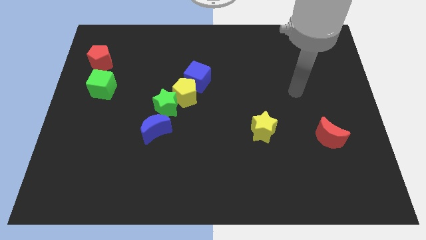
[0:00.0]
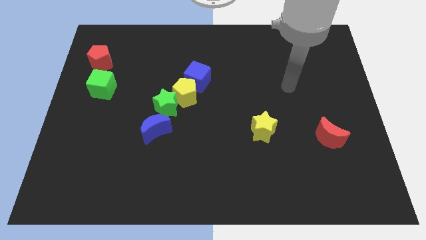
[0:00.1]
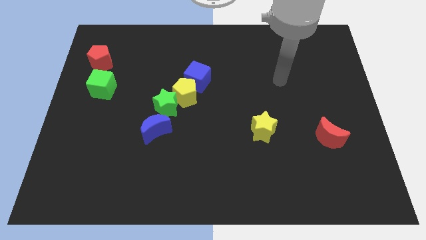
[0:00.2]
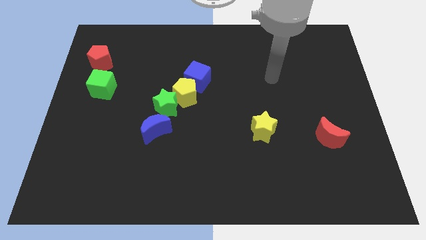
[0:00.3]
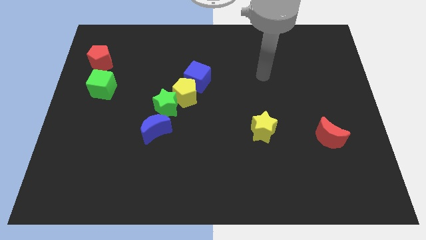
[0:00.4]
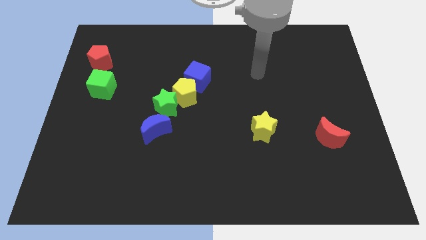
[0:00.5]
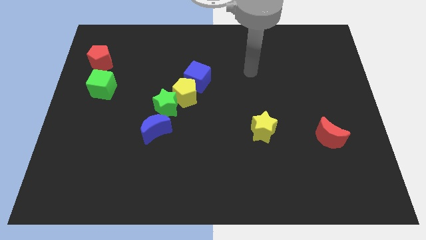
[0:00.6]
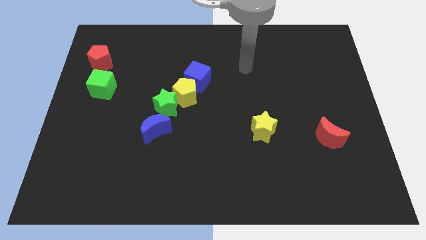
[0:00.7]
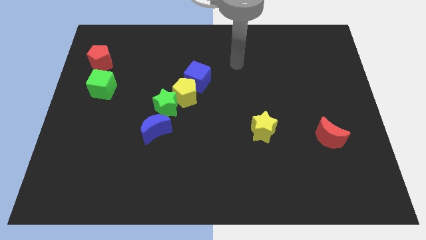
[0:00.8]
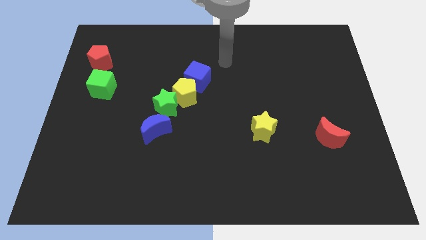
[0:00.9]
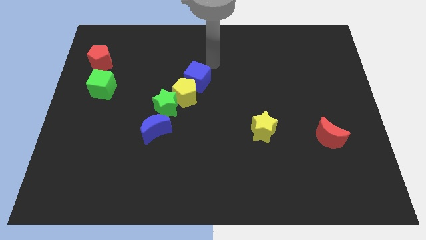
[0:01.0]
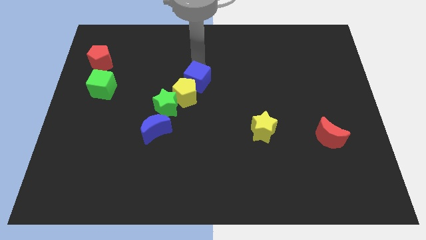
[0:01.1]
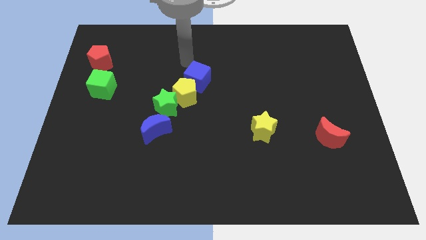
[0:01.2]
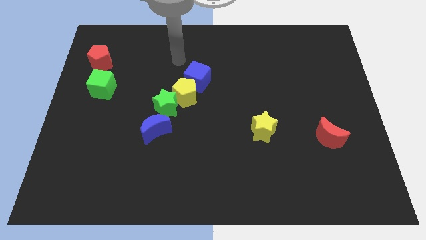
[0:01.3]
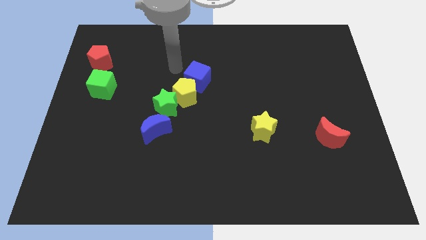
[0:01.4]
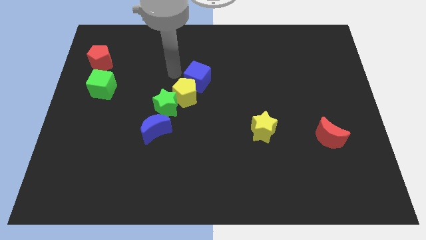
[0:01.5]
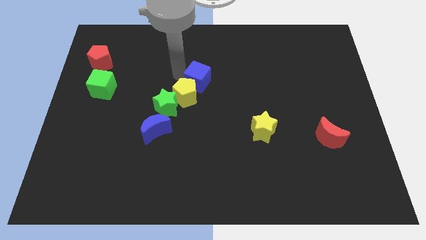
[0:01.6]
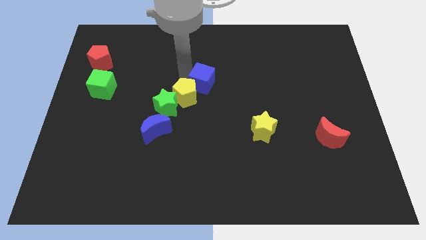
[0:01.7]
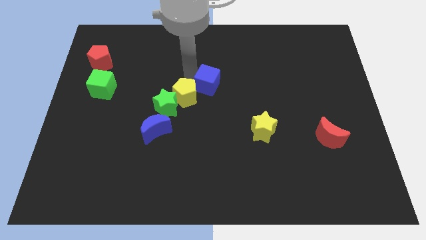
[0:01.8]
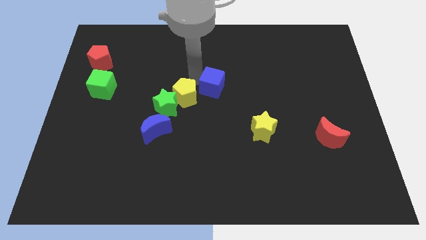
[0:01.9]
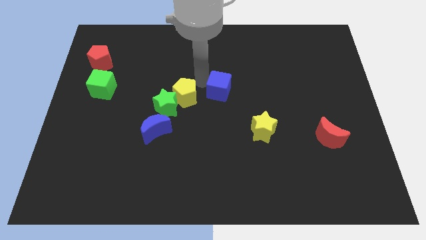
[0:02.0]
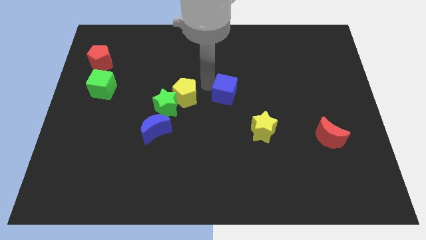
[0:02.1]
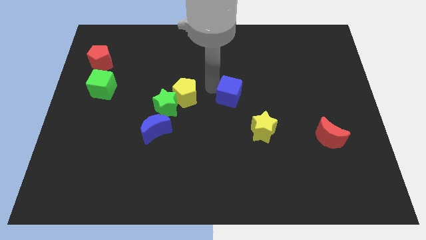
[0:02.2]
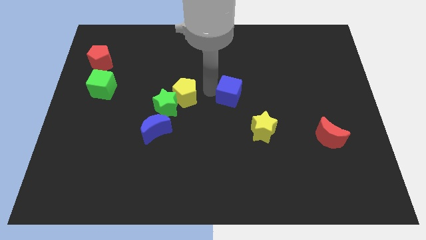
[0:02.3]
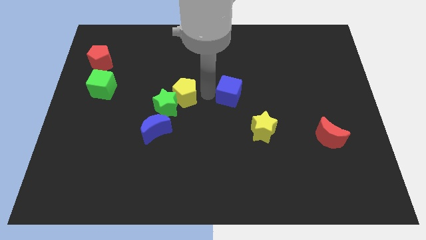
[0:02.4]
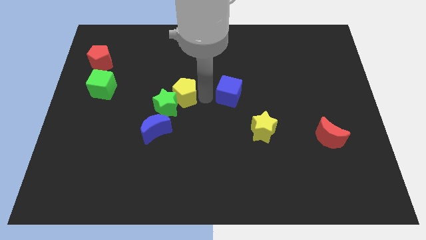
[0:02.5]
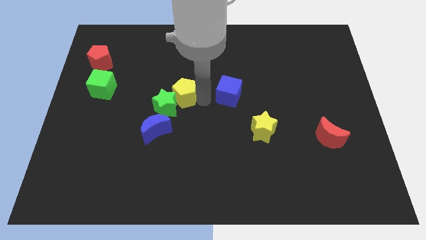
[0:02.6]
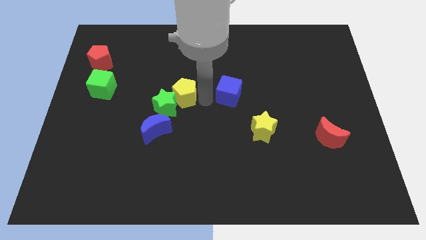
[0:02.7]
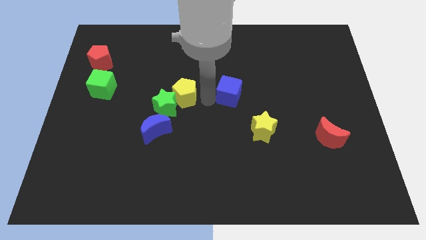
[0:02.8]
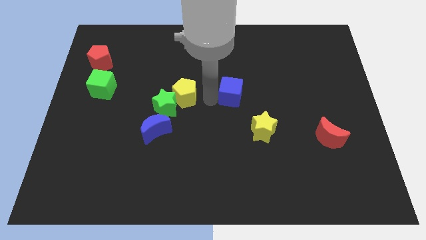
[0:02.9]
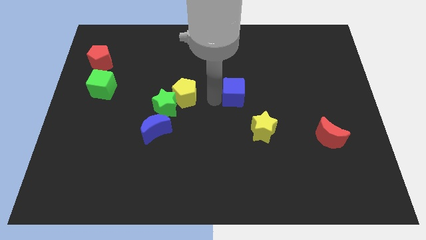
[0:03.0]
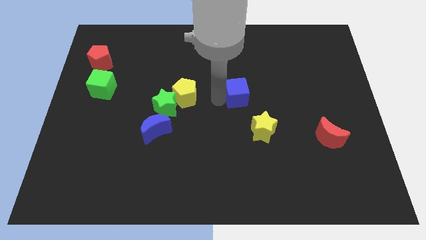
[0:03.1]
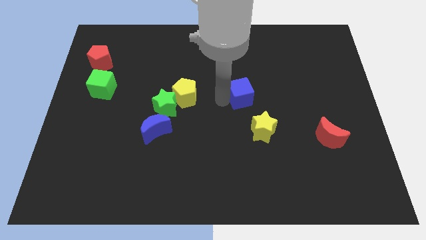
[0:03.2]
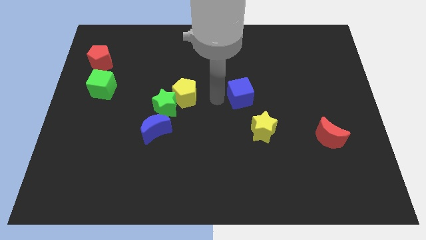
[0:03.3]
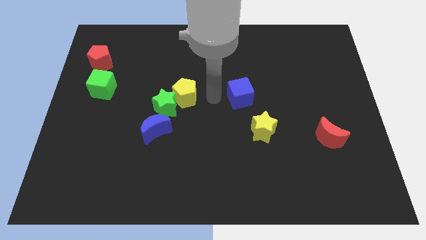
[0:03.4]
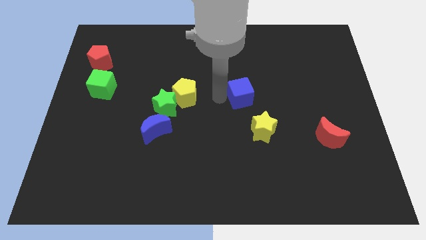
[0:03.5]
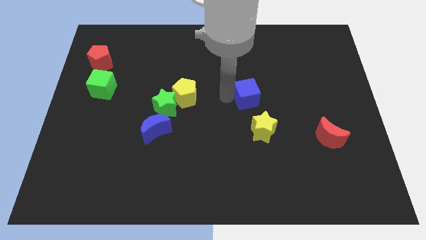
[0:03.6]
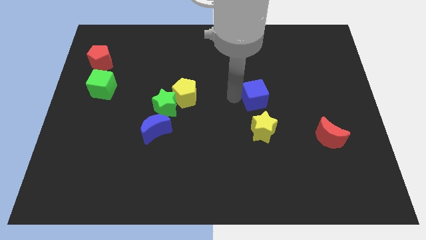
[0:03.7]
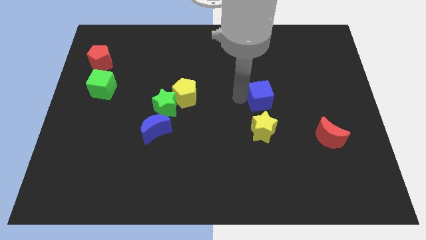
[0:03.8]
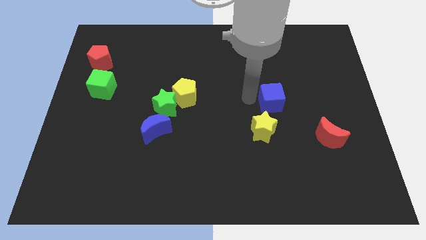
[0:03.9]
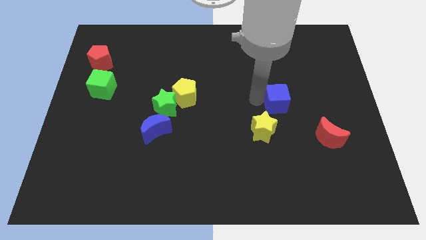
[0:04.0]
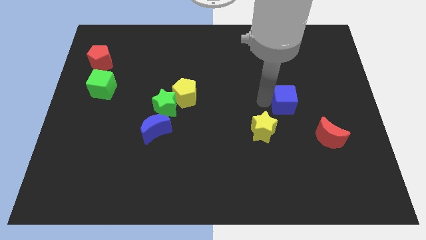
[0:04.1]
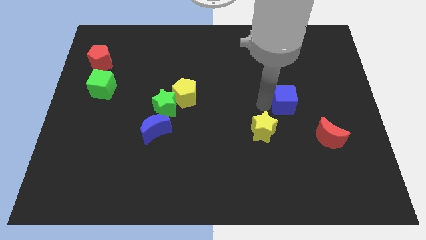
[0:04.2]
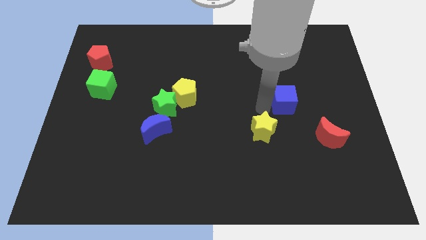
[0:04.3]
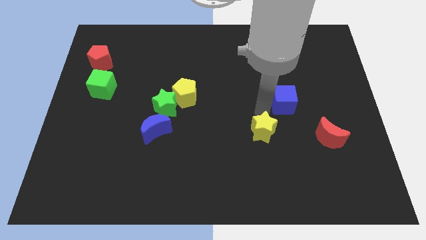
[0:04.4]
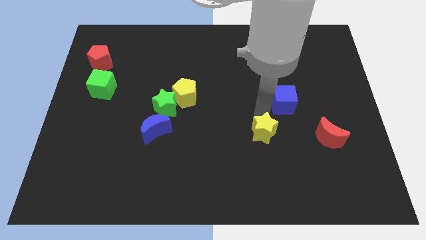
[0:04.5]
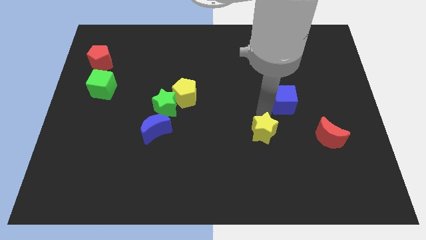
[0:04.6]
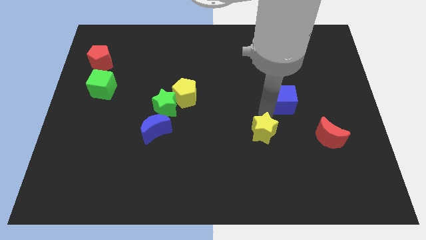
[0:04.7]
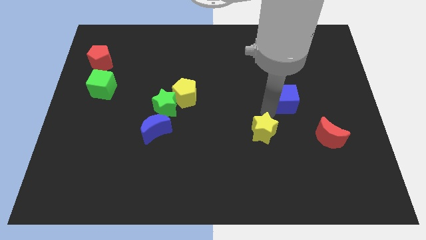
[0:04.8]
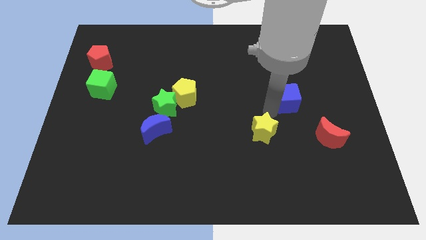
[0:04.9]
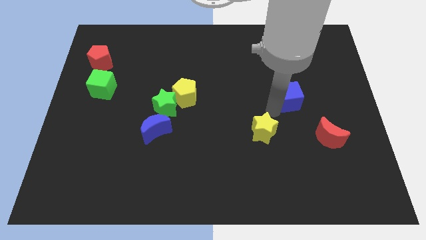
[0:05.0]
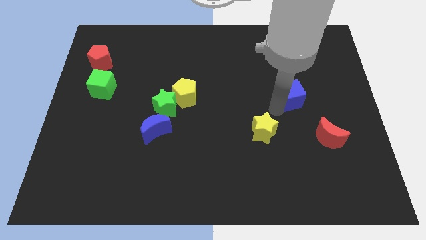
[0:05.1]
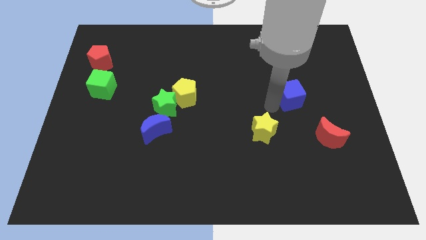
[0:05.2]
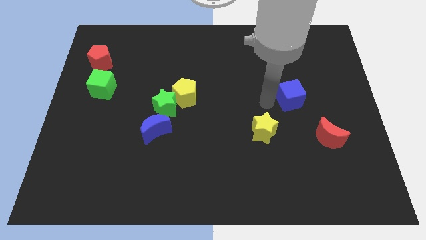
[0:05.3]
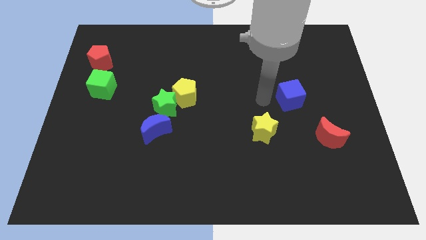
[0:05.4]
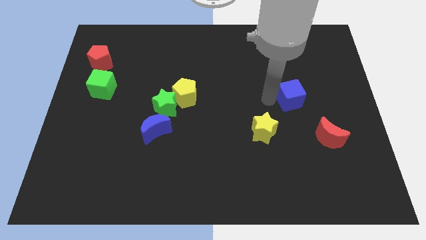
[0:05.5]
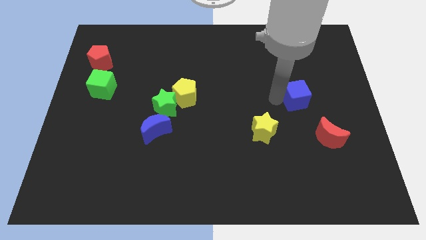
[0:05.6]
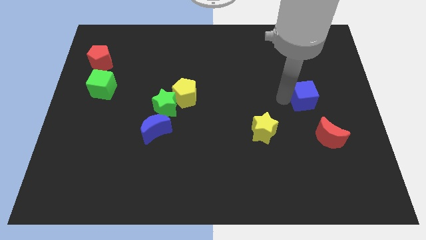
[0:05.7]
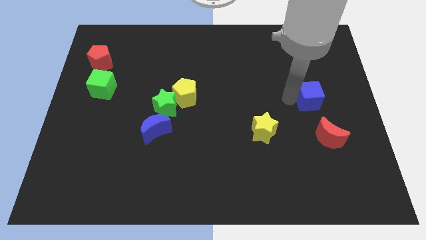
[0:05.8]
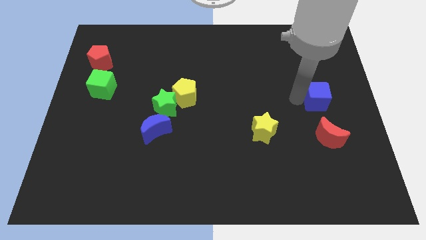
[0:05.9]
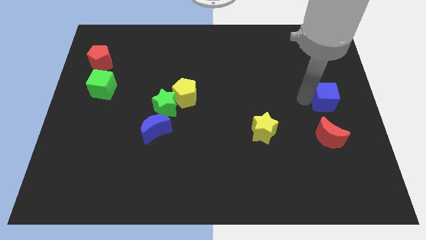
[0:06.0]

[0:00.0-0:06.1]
push the blue cube to the right side of the board

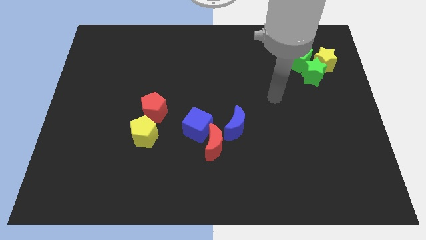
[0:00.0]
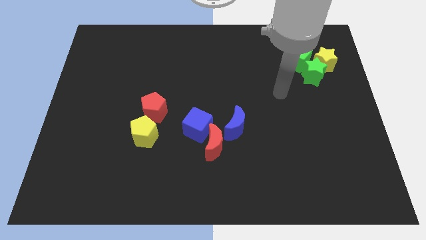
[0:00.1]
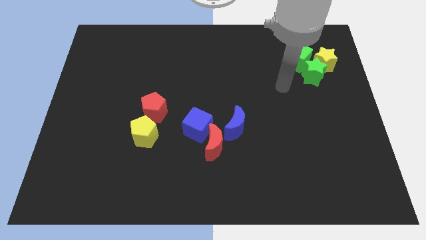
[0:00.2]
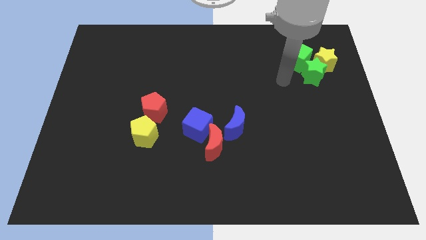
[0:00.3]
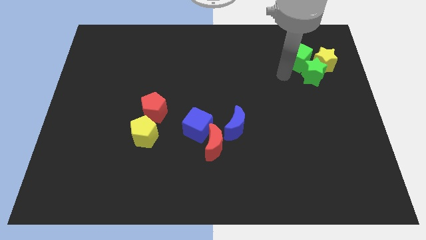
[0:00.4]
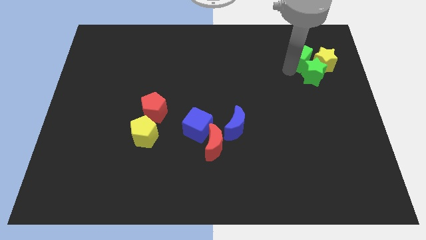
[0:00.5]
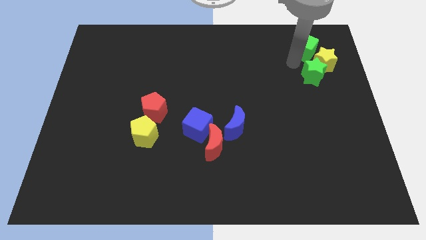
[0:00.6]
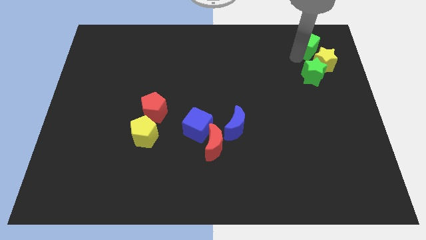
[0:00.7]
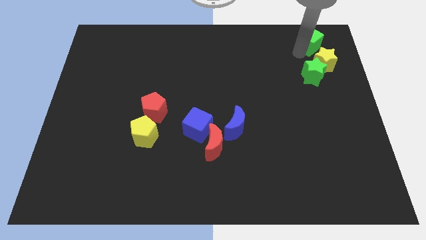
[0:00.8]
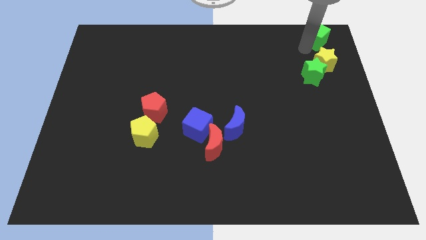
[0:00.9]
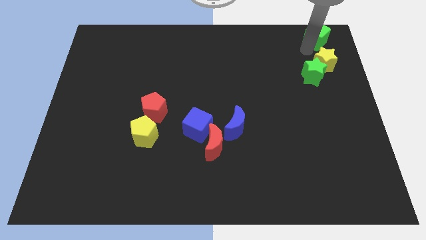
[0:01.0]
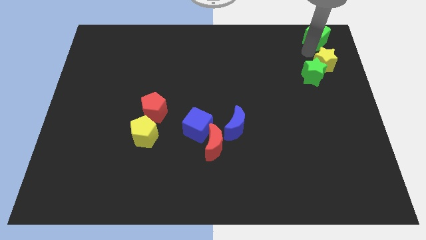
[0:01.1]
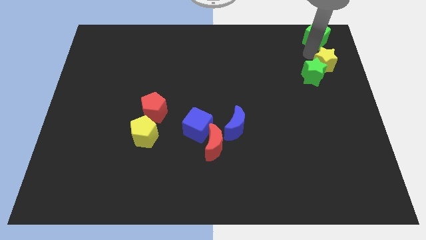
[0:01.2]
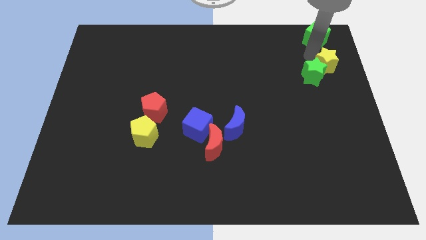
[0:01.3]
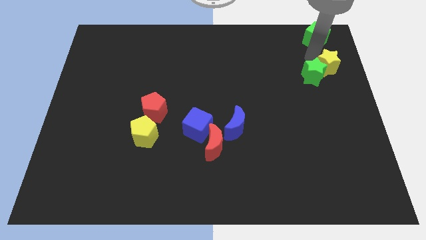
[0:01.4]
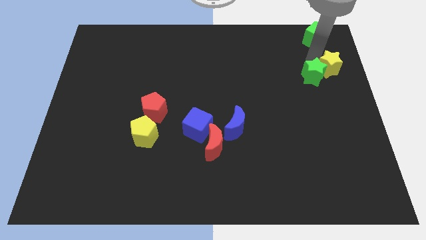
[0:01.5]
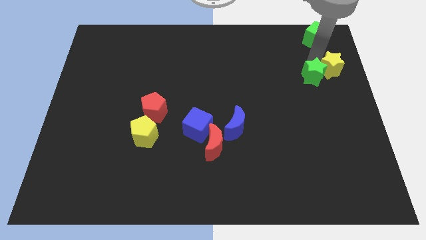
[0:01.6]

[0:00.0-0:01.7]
push the yellow star to the right side
